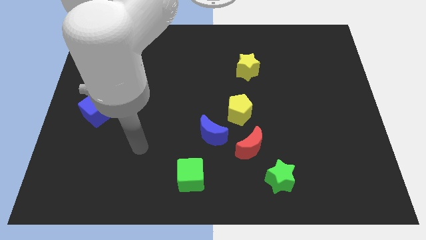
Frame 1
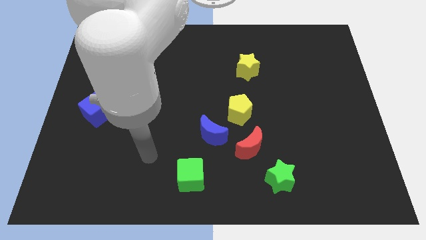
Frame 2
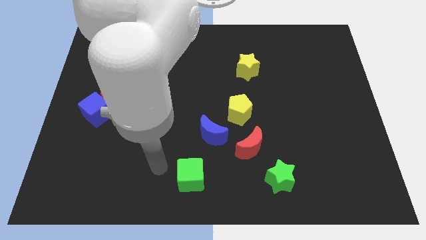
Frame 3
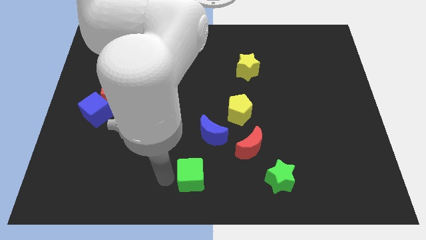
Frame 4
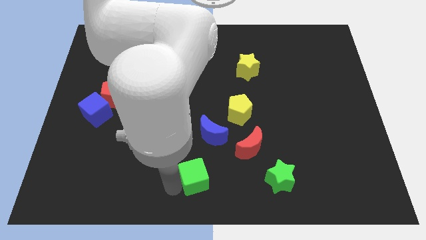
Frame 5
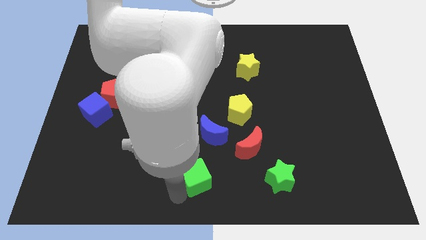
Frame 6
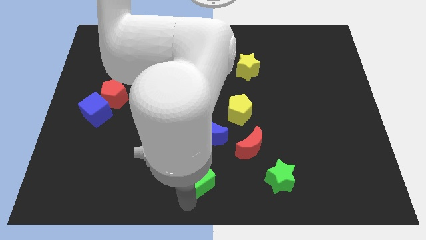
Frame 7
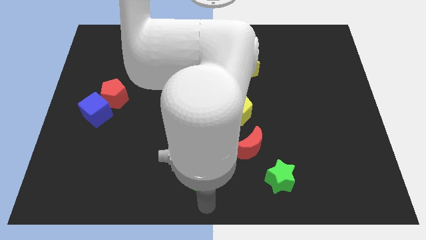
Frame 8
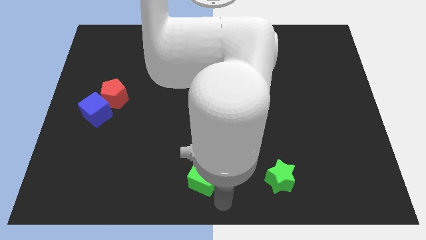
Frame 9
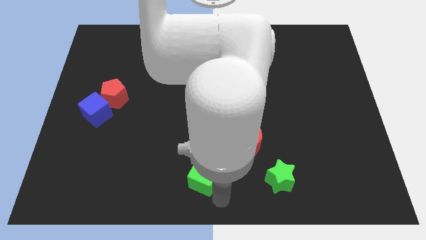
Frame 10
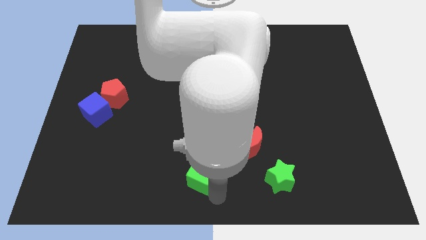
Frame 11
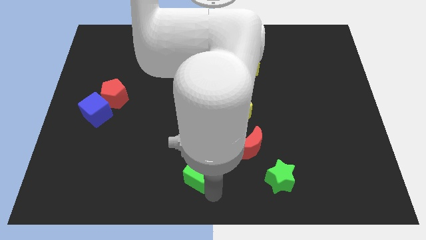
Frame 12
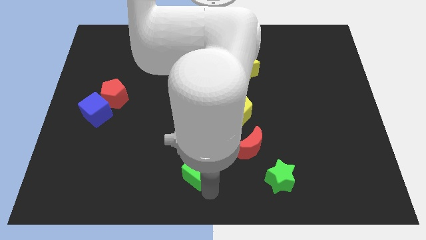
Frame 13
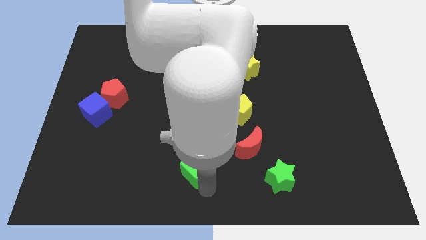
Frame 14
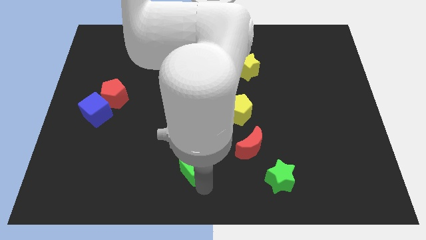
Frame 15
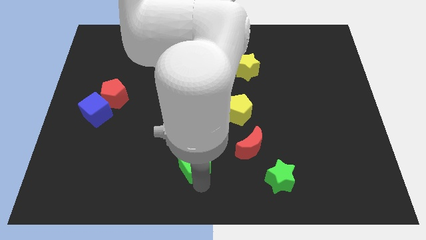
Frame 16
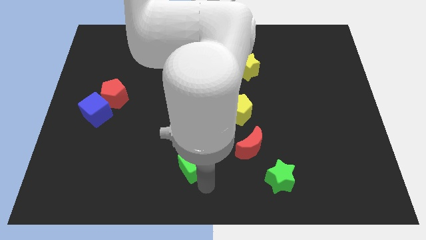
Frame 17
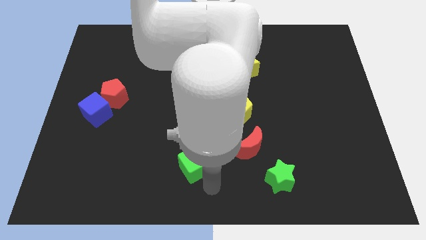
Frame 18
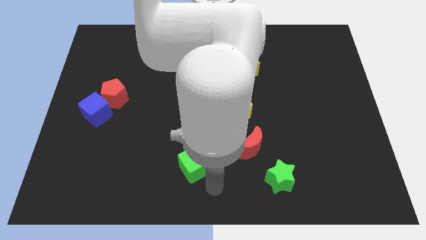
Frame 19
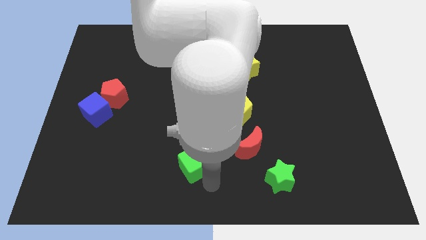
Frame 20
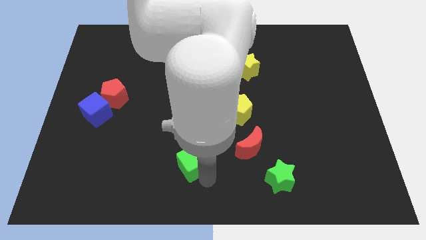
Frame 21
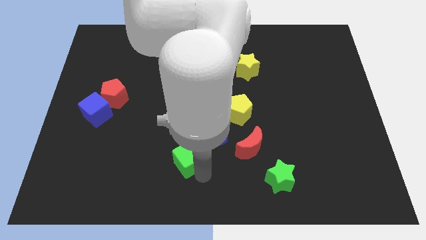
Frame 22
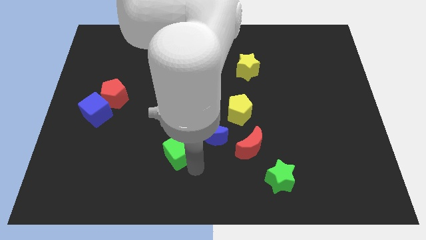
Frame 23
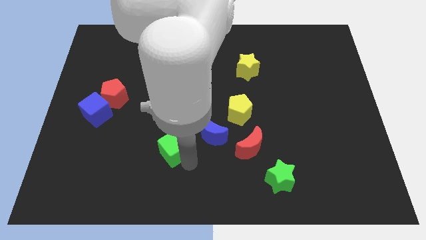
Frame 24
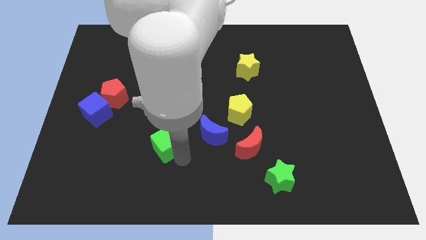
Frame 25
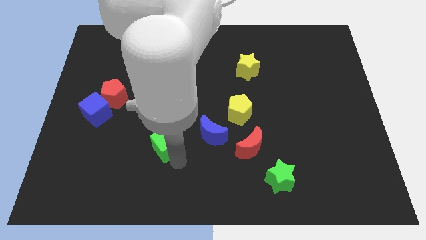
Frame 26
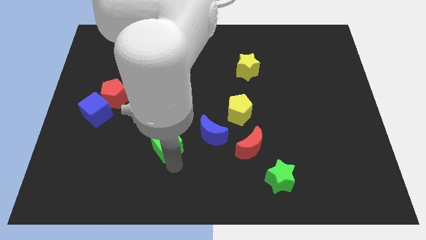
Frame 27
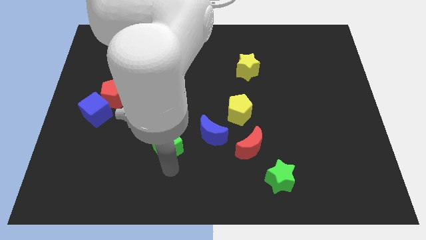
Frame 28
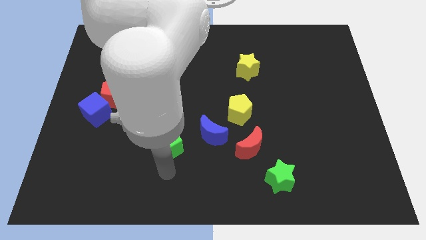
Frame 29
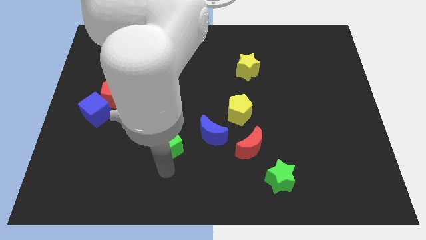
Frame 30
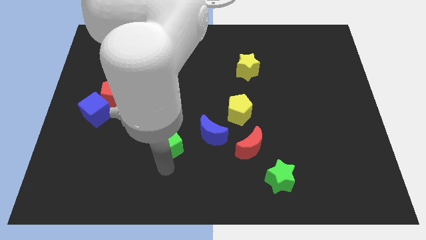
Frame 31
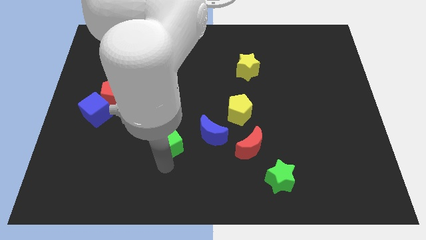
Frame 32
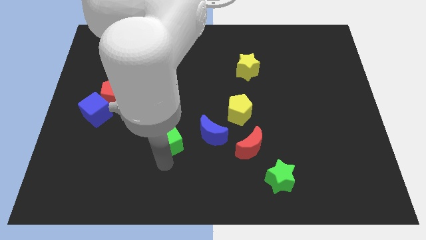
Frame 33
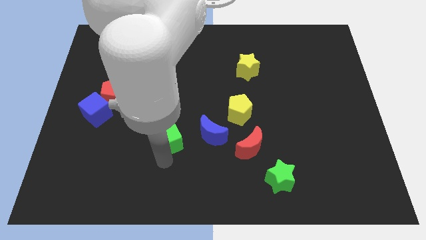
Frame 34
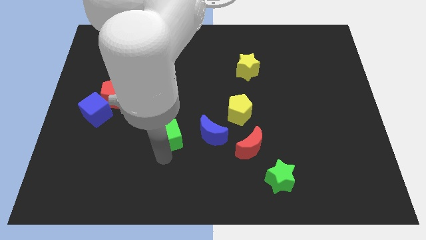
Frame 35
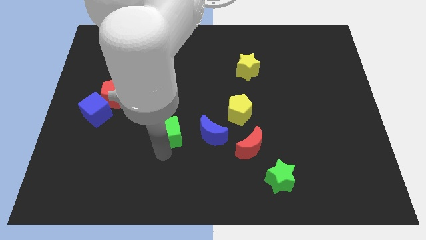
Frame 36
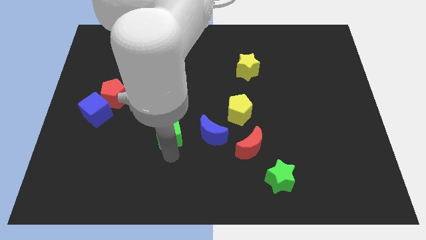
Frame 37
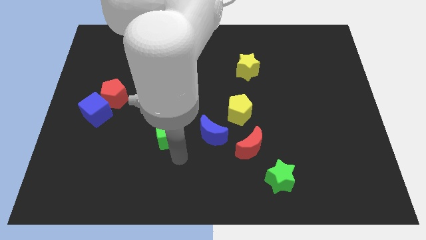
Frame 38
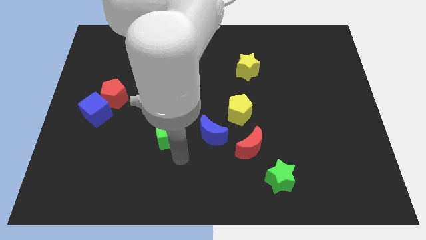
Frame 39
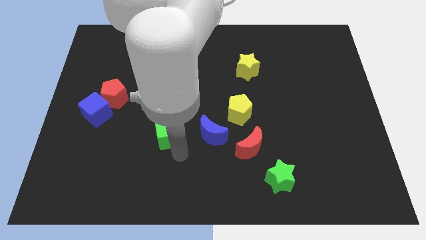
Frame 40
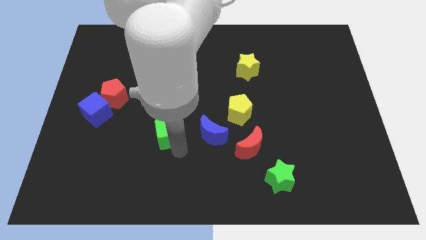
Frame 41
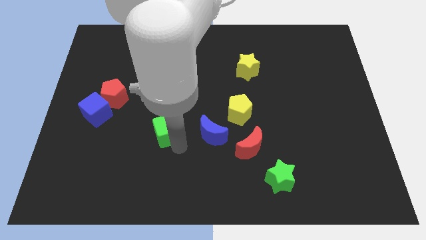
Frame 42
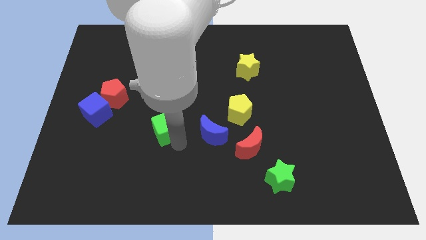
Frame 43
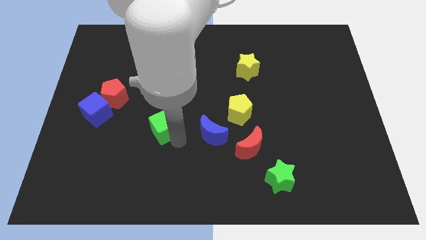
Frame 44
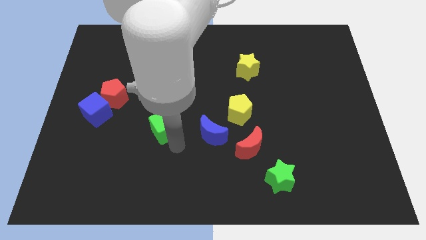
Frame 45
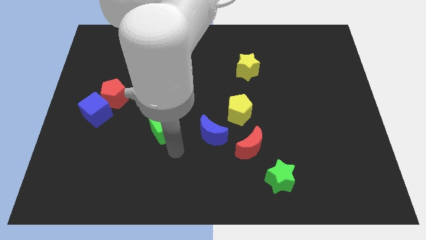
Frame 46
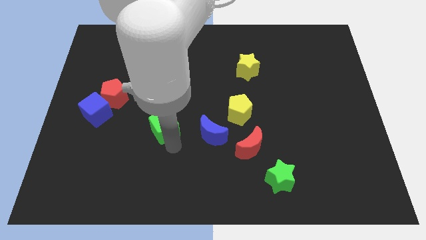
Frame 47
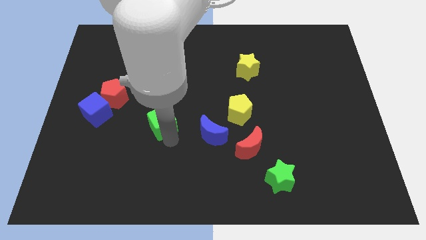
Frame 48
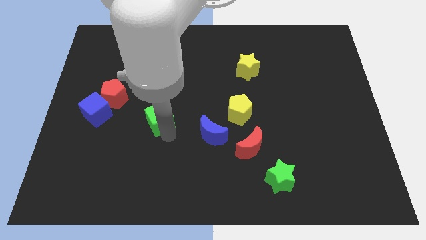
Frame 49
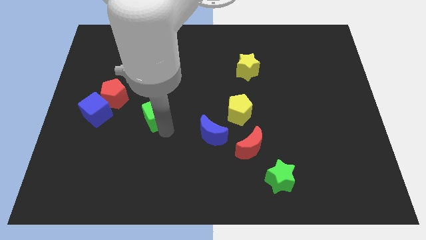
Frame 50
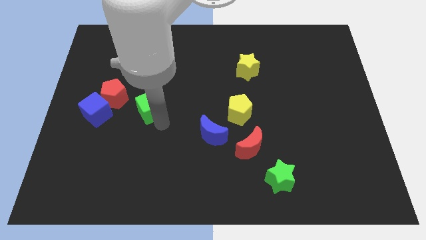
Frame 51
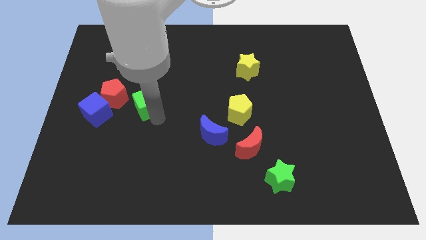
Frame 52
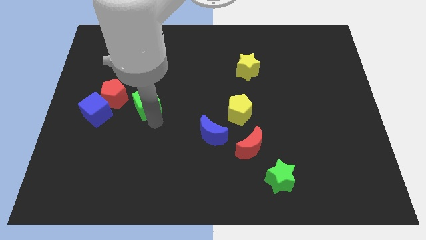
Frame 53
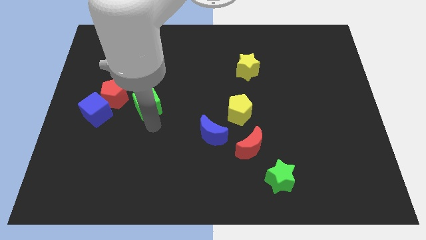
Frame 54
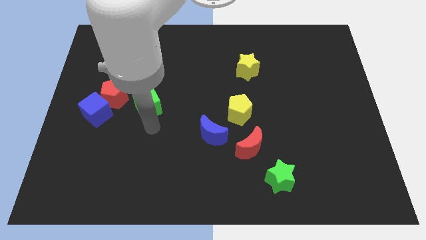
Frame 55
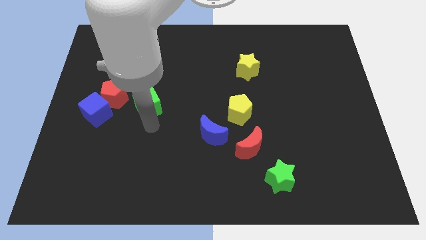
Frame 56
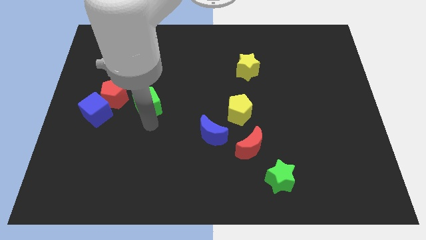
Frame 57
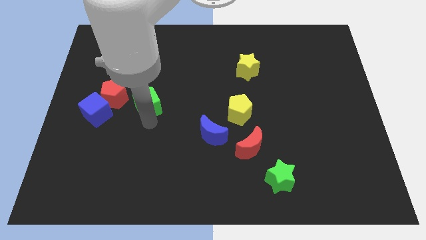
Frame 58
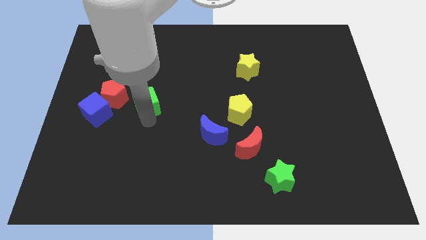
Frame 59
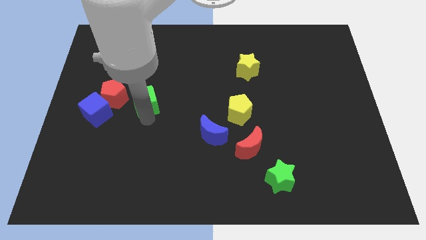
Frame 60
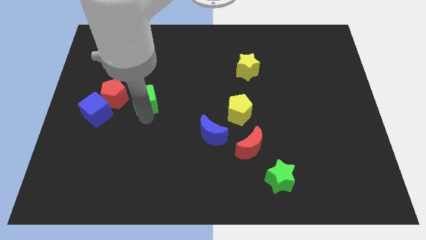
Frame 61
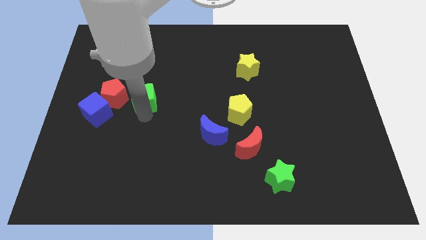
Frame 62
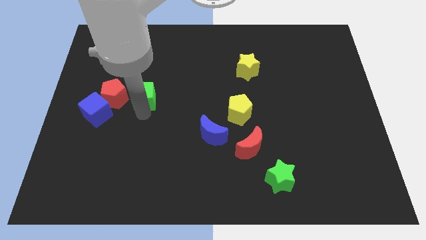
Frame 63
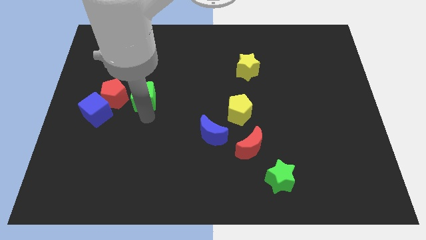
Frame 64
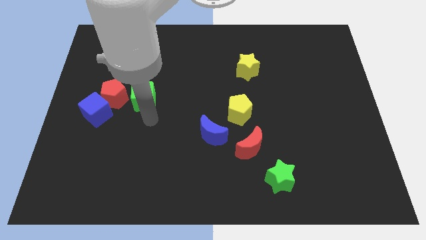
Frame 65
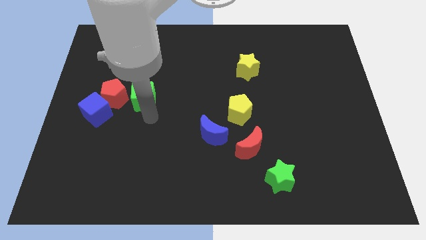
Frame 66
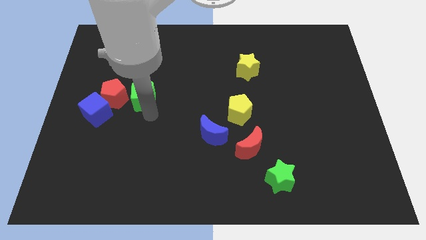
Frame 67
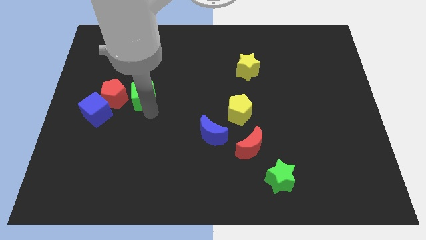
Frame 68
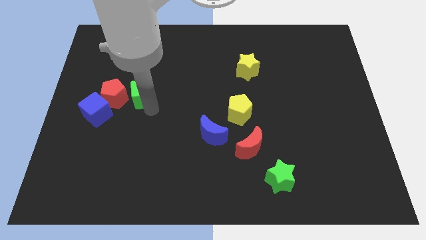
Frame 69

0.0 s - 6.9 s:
put the green cube diagonally up and to the right of the red pentagon

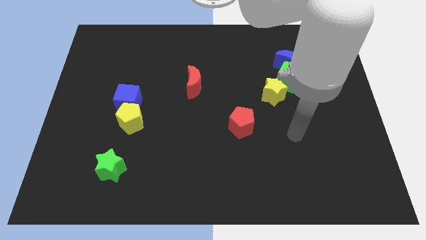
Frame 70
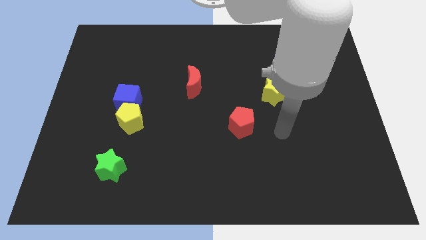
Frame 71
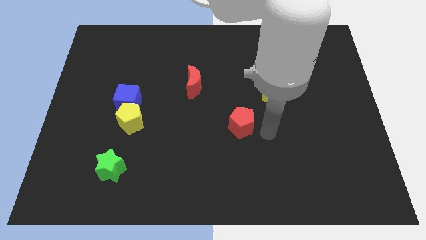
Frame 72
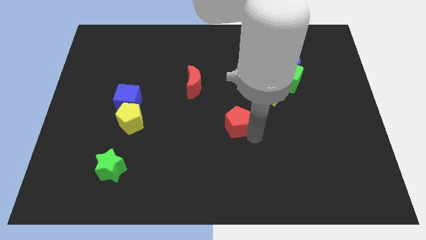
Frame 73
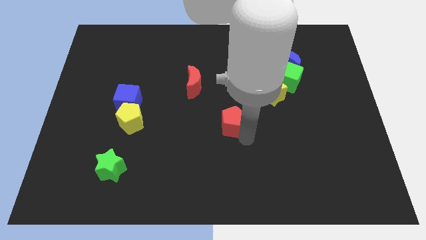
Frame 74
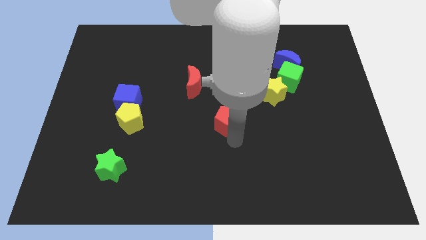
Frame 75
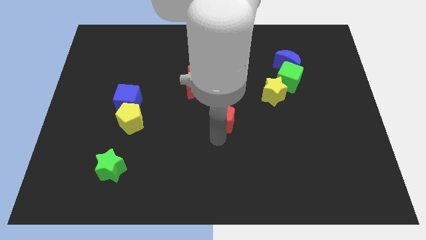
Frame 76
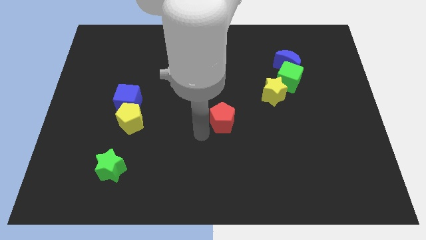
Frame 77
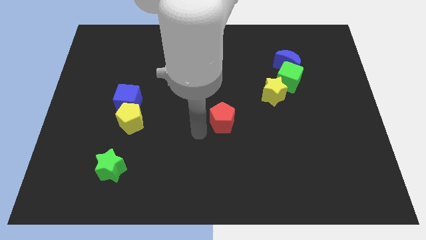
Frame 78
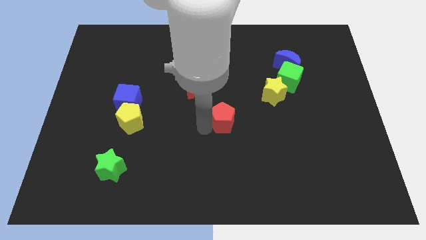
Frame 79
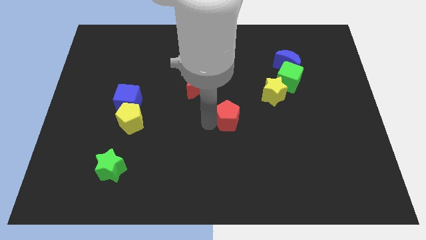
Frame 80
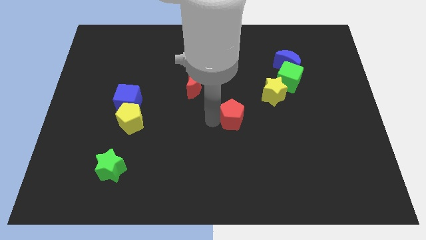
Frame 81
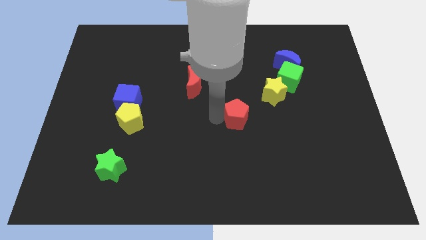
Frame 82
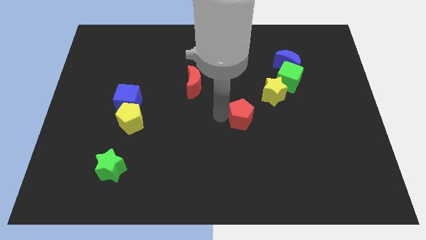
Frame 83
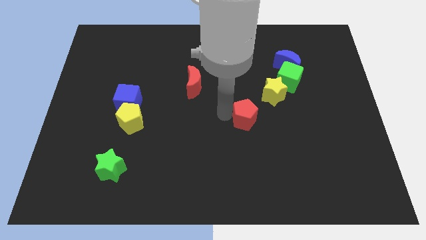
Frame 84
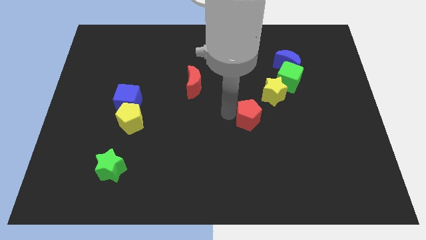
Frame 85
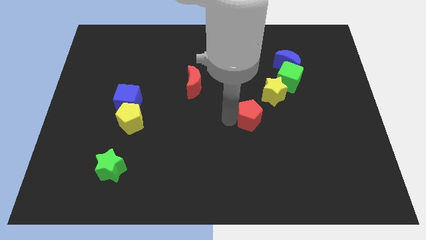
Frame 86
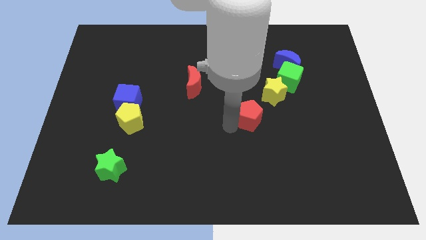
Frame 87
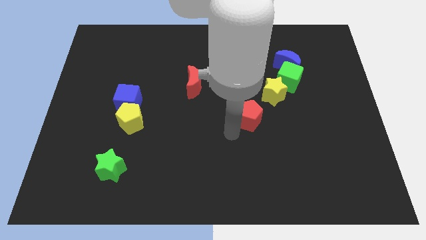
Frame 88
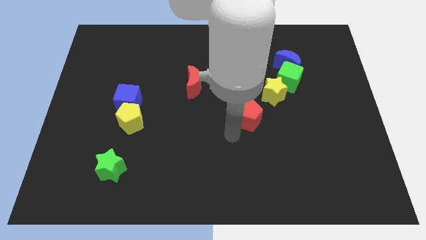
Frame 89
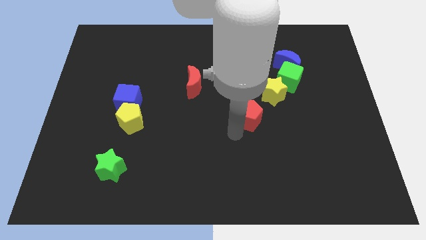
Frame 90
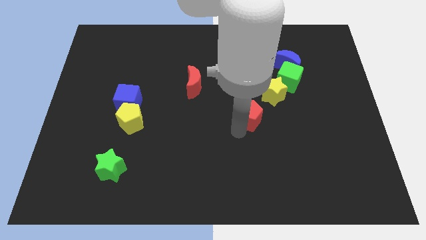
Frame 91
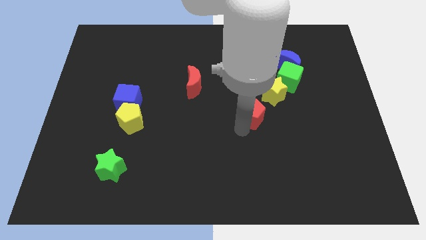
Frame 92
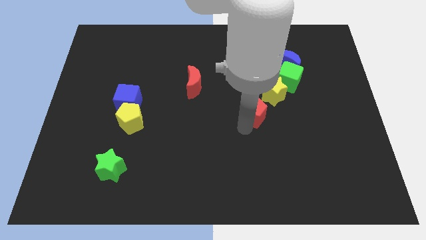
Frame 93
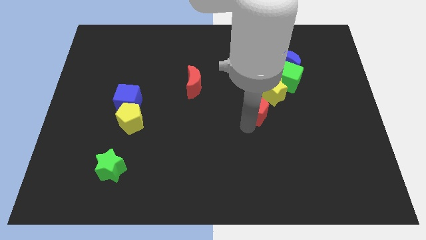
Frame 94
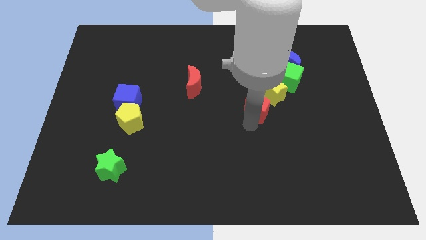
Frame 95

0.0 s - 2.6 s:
push the red pentagon to the bottom left side of the green cube
